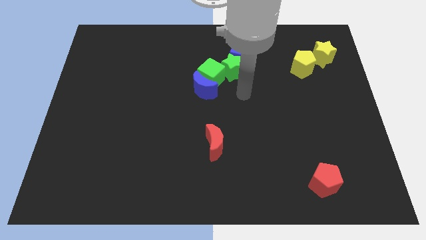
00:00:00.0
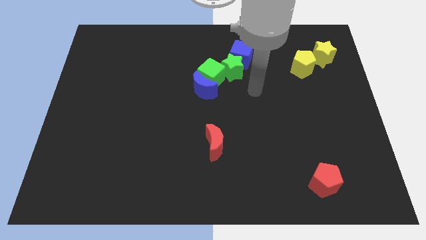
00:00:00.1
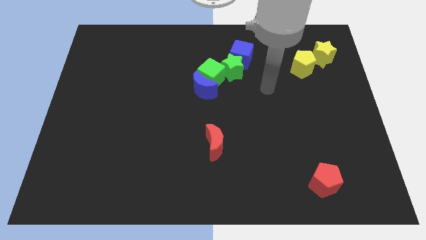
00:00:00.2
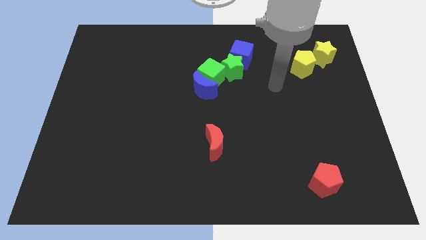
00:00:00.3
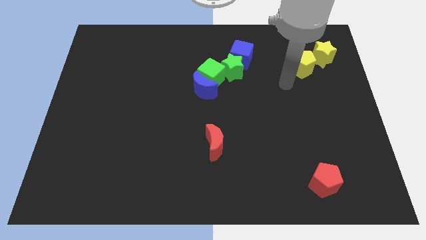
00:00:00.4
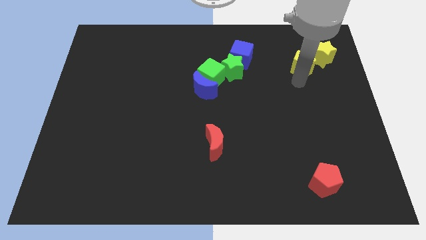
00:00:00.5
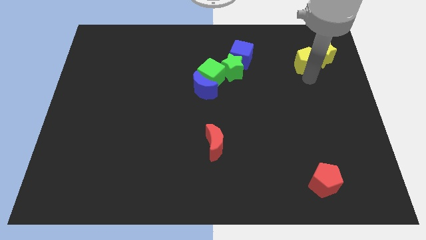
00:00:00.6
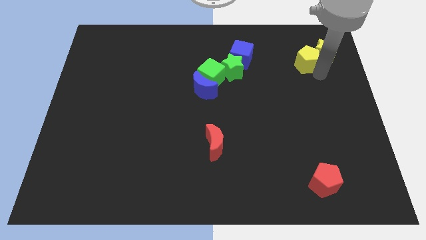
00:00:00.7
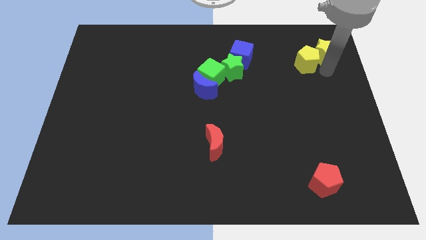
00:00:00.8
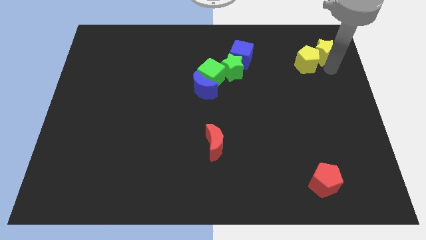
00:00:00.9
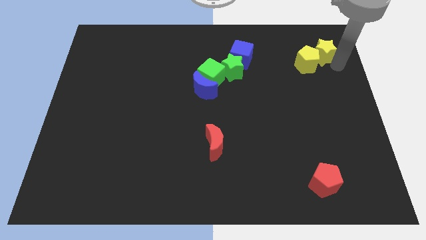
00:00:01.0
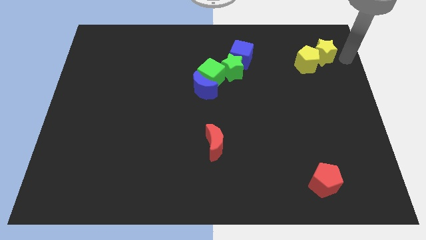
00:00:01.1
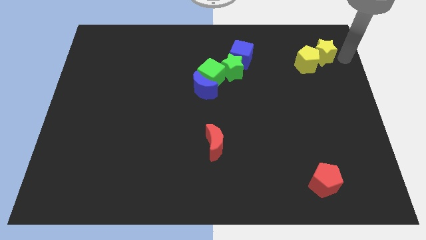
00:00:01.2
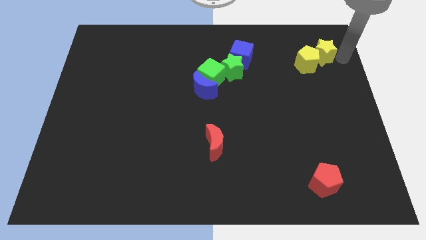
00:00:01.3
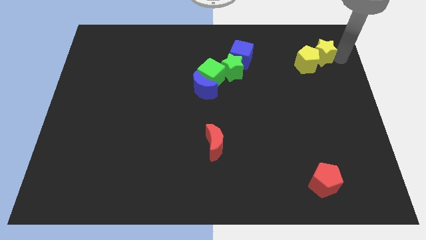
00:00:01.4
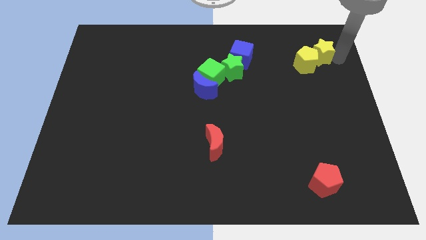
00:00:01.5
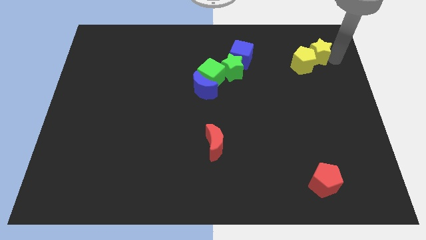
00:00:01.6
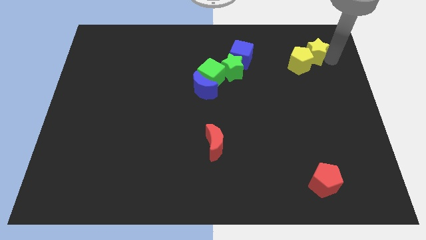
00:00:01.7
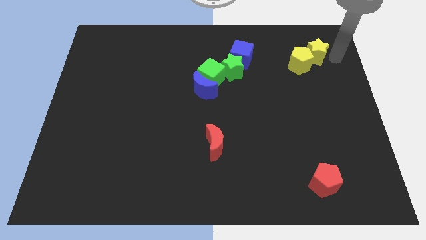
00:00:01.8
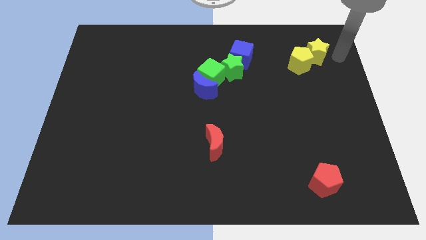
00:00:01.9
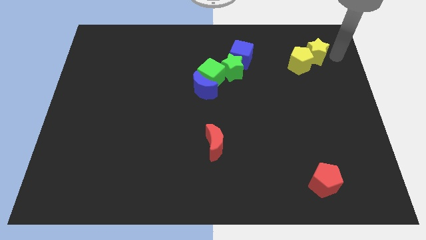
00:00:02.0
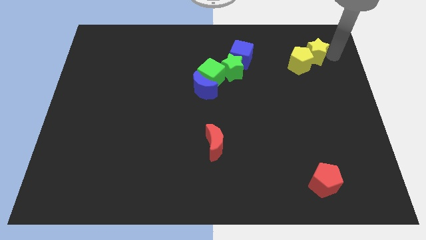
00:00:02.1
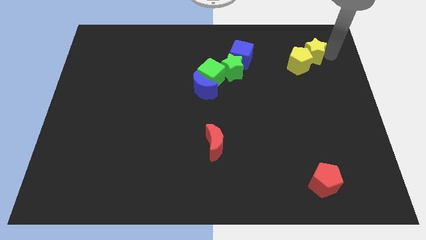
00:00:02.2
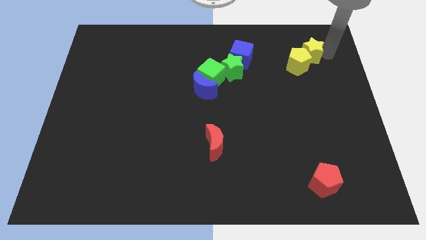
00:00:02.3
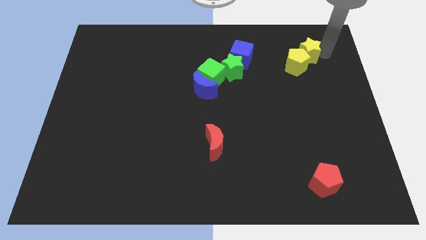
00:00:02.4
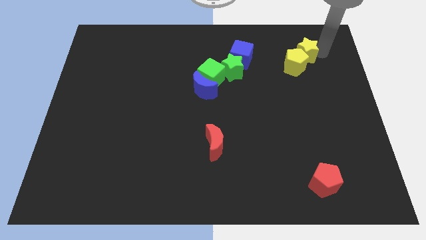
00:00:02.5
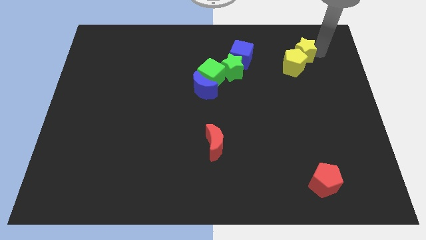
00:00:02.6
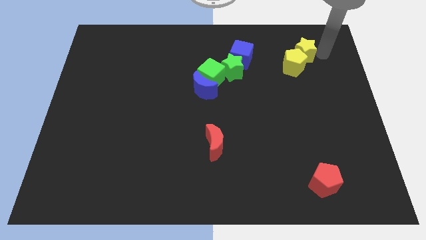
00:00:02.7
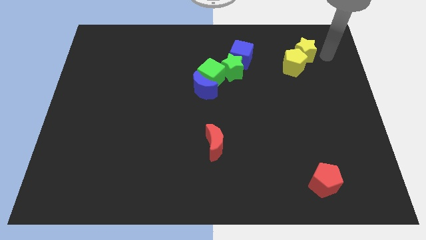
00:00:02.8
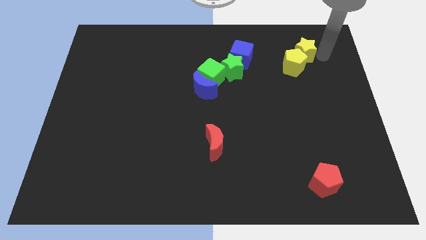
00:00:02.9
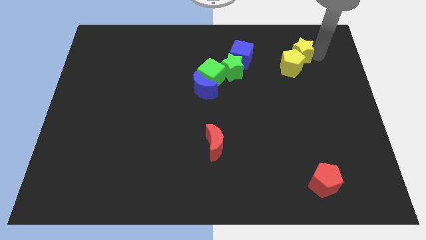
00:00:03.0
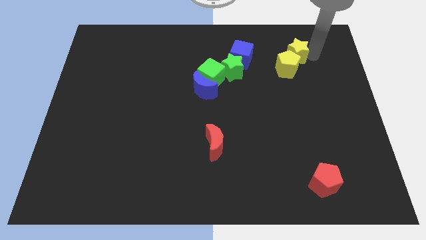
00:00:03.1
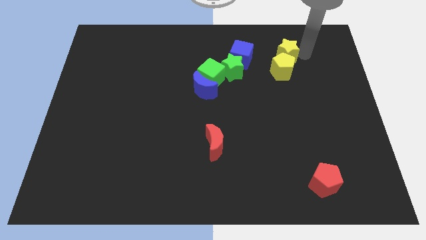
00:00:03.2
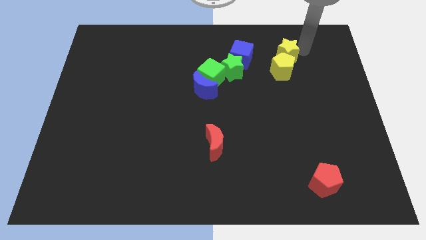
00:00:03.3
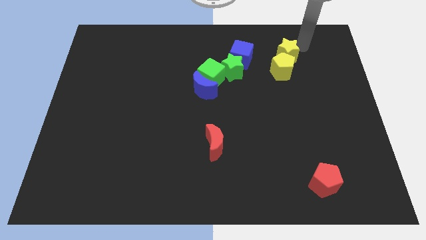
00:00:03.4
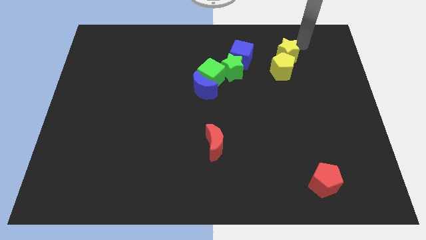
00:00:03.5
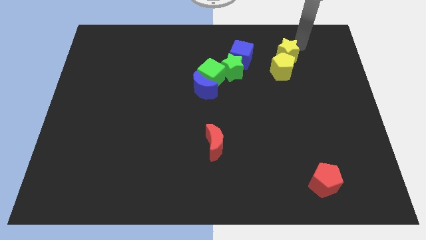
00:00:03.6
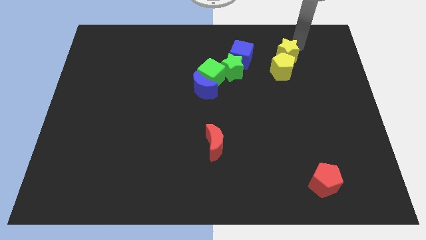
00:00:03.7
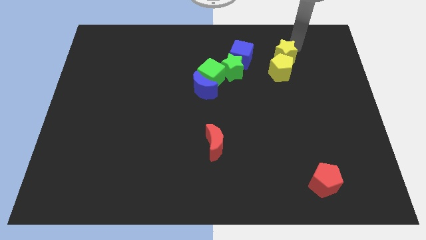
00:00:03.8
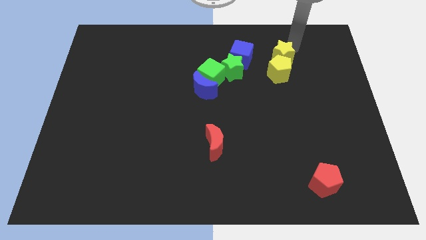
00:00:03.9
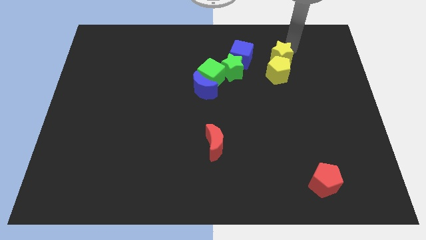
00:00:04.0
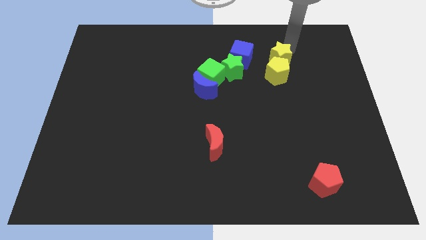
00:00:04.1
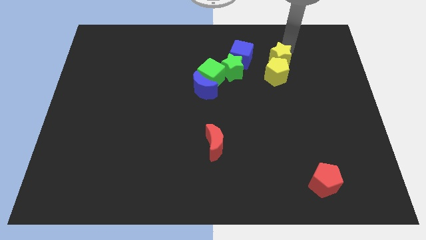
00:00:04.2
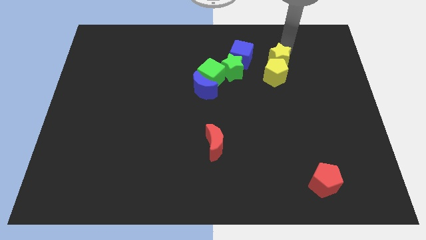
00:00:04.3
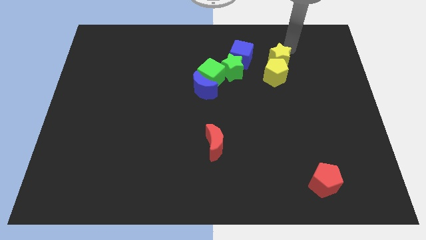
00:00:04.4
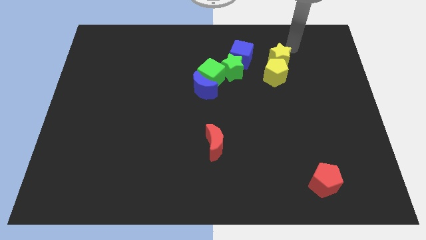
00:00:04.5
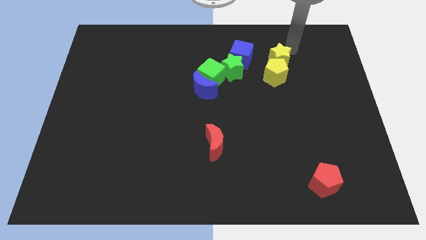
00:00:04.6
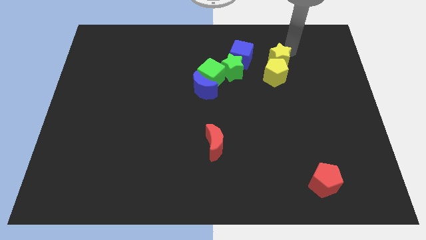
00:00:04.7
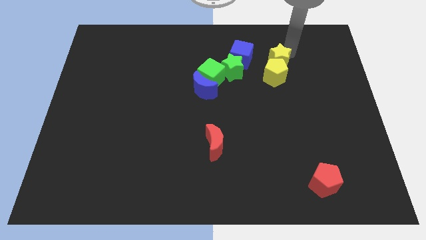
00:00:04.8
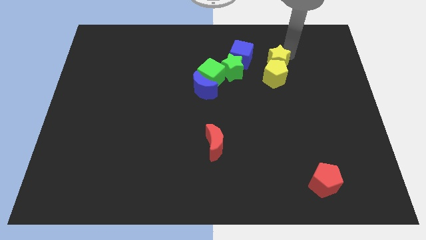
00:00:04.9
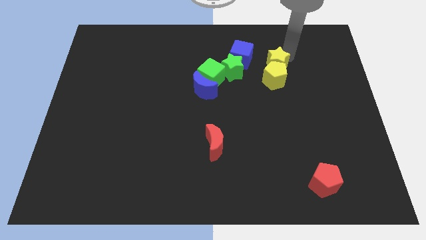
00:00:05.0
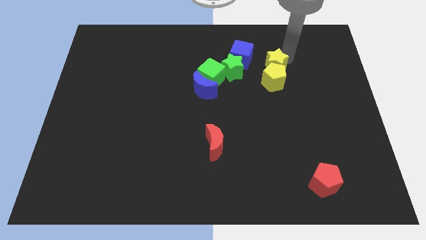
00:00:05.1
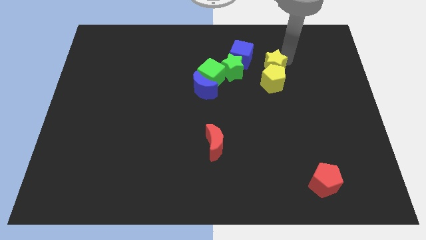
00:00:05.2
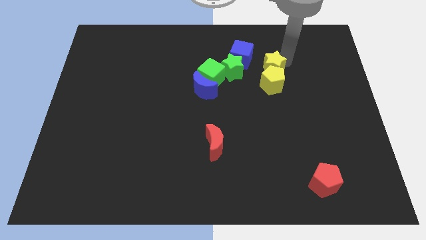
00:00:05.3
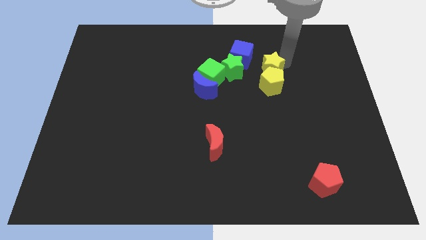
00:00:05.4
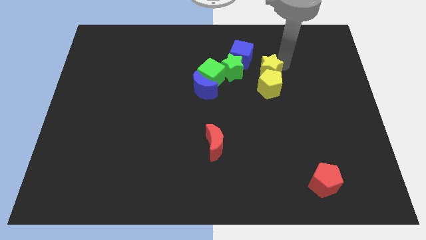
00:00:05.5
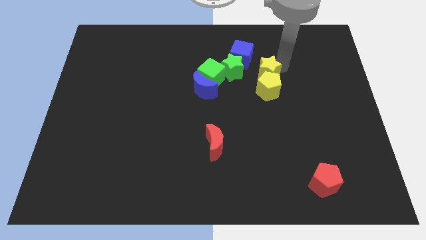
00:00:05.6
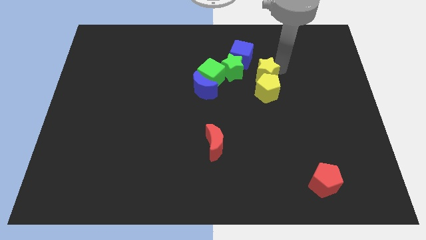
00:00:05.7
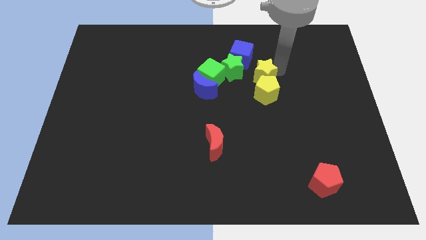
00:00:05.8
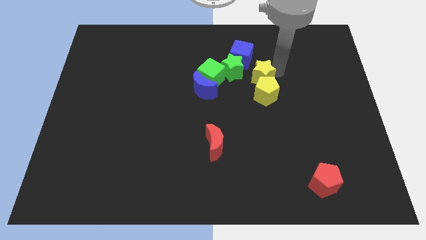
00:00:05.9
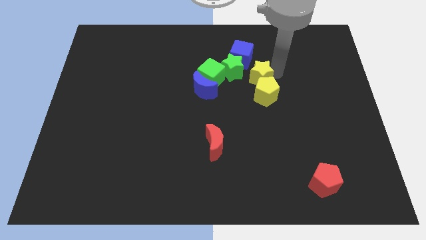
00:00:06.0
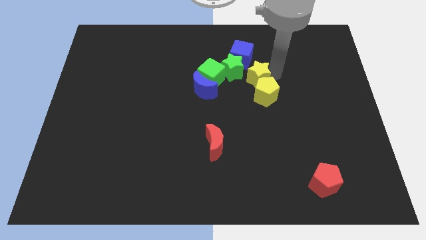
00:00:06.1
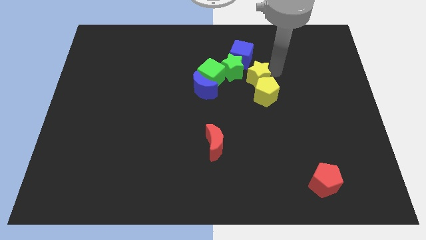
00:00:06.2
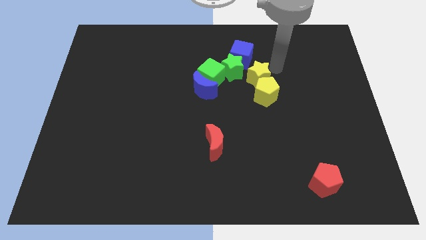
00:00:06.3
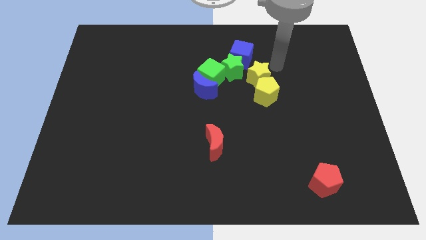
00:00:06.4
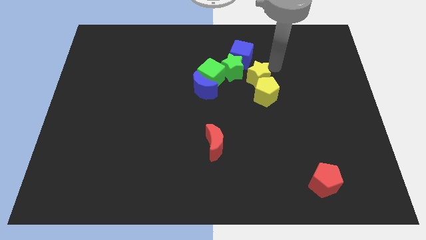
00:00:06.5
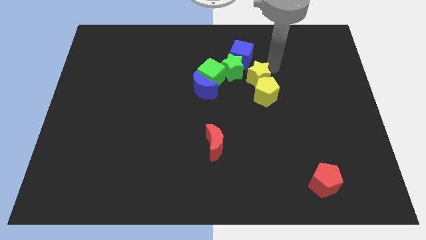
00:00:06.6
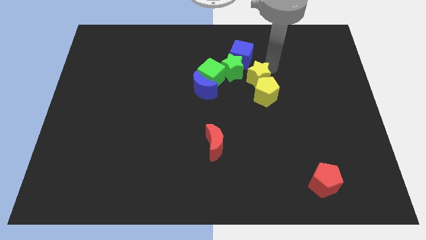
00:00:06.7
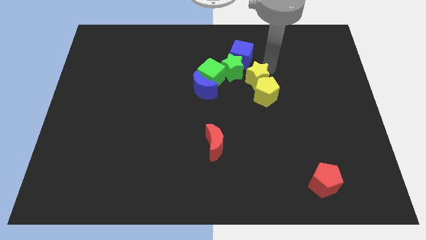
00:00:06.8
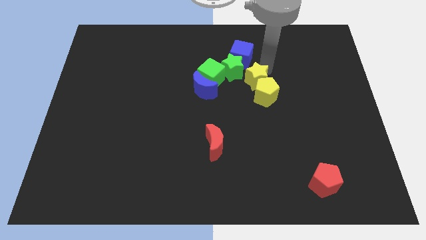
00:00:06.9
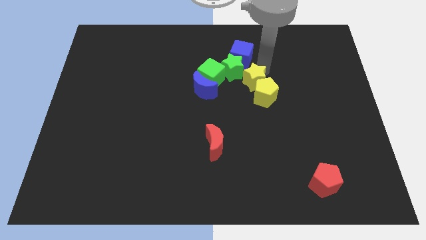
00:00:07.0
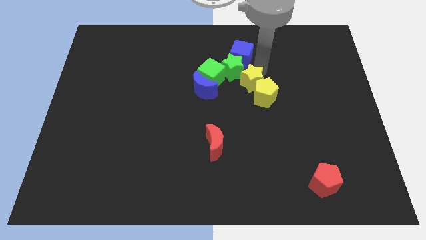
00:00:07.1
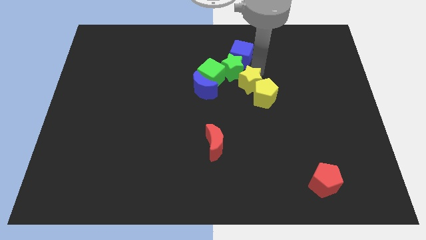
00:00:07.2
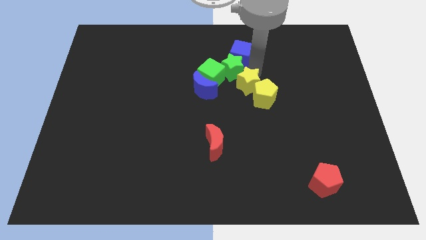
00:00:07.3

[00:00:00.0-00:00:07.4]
put the yellow star diagonally down and to the right of the green cube

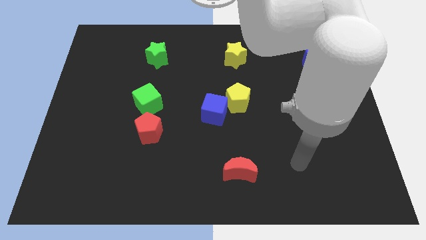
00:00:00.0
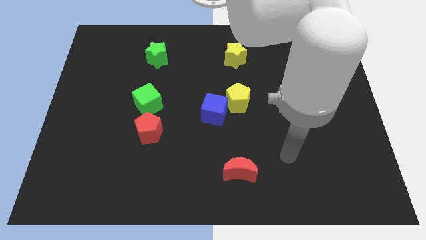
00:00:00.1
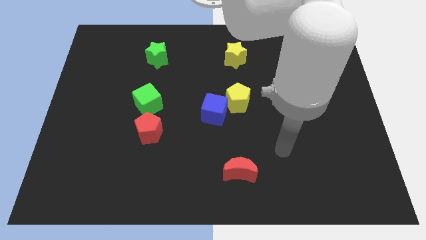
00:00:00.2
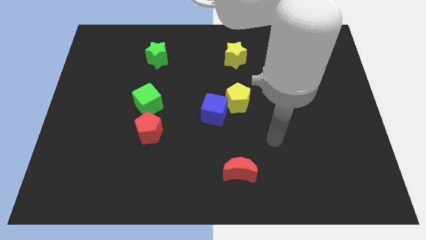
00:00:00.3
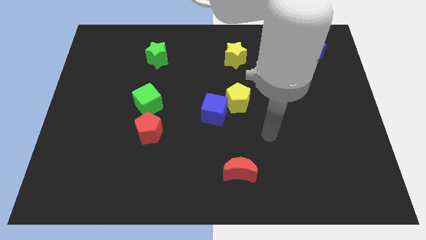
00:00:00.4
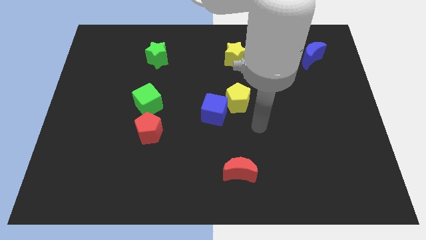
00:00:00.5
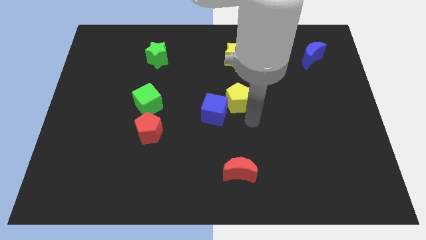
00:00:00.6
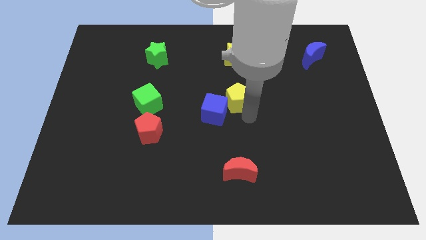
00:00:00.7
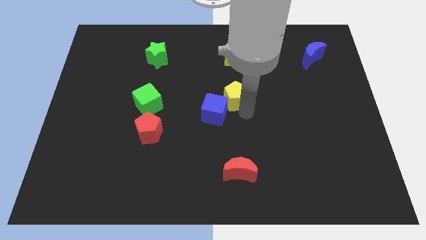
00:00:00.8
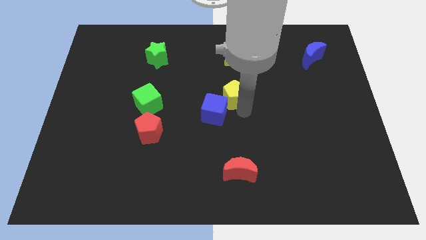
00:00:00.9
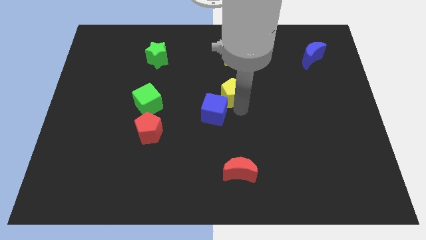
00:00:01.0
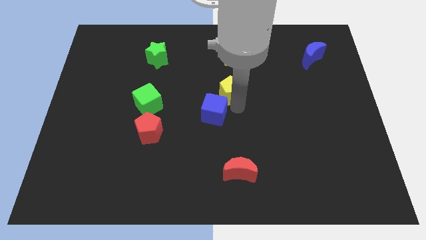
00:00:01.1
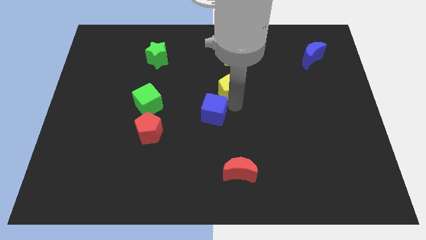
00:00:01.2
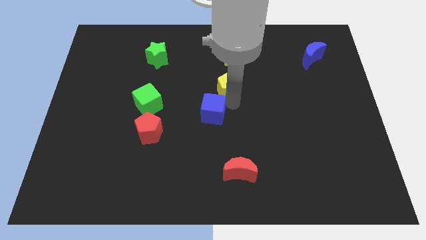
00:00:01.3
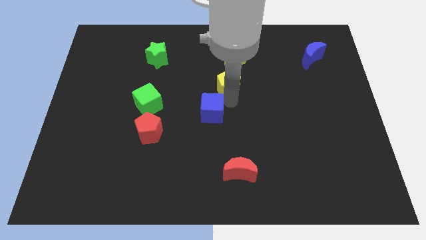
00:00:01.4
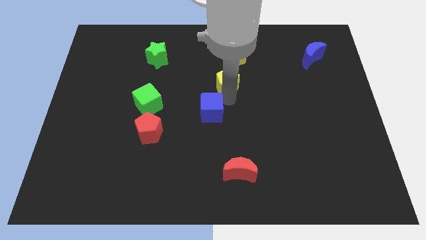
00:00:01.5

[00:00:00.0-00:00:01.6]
put the yellow pentagon diagonally down and to the left of the yellow star
